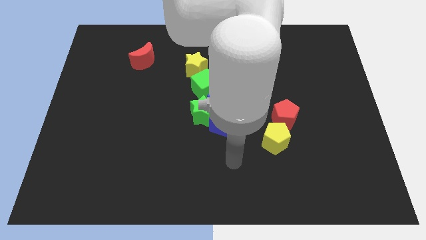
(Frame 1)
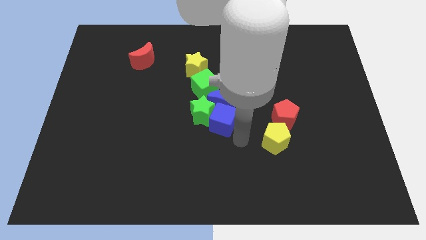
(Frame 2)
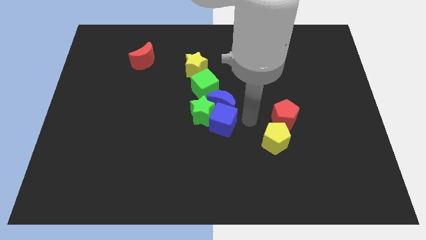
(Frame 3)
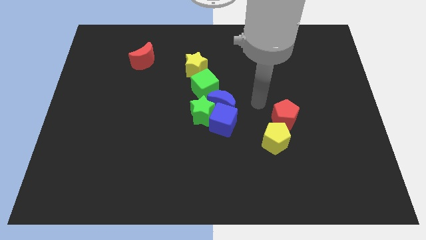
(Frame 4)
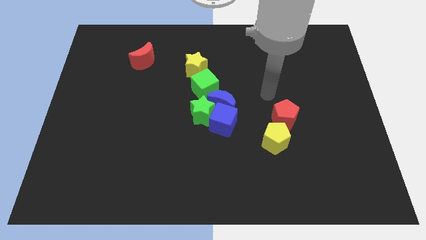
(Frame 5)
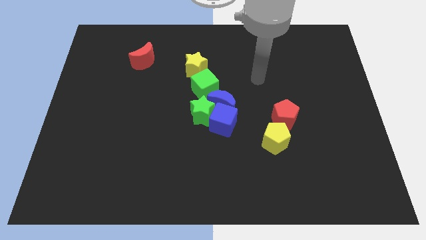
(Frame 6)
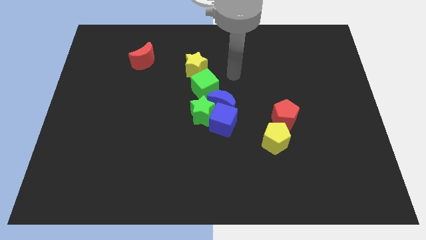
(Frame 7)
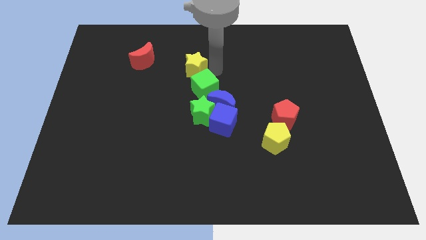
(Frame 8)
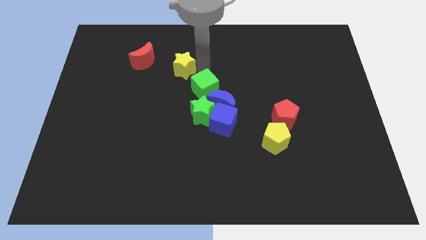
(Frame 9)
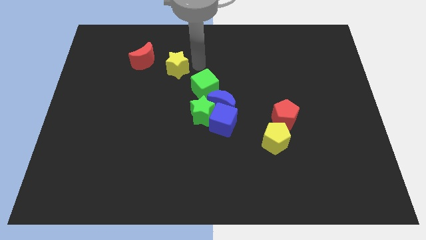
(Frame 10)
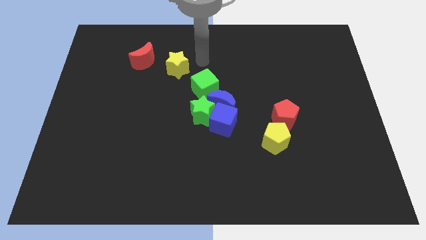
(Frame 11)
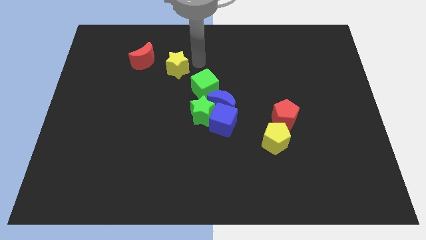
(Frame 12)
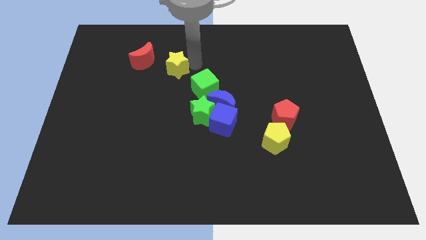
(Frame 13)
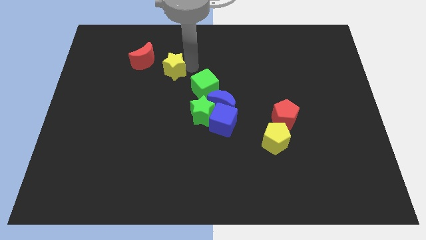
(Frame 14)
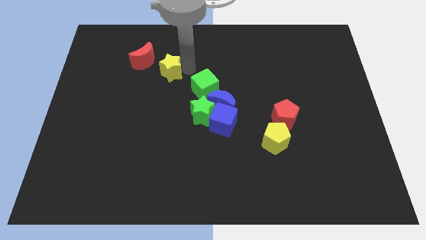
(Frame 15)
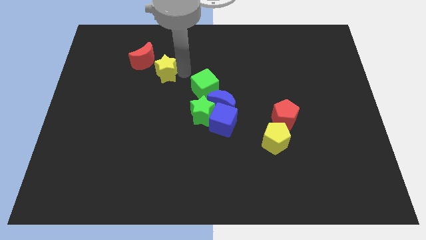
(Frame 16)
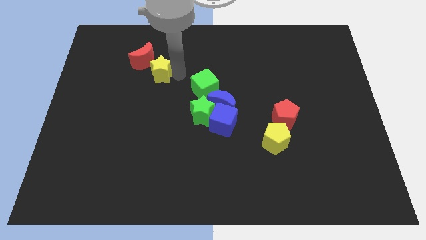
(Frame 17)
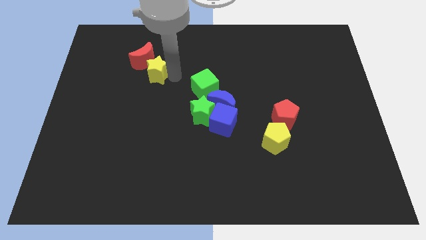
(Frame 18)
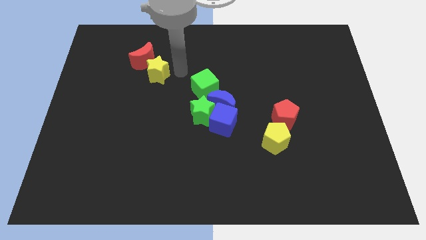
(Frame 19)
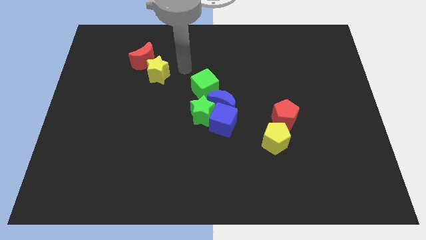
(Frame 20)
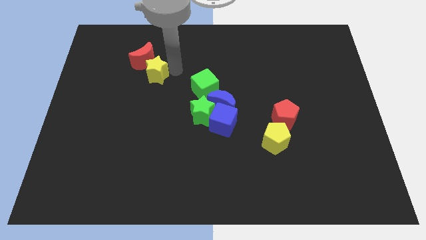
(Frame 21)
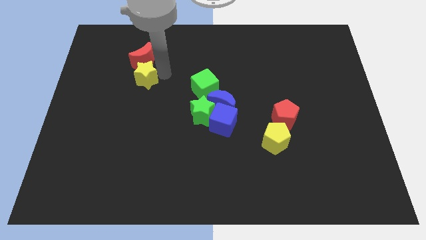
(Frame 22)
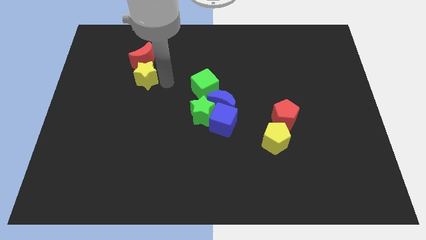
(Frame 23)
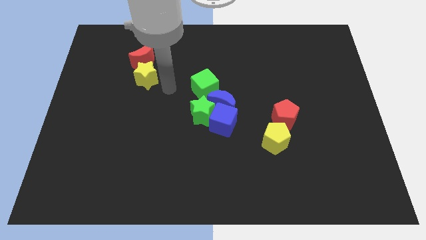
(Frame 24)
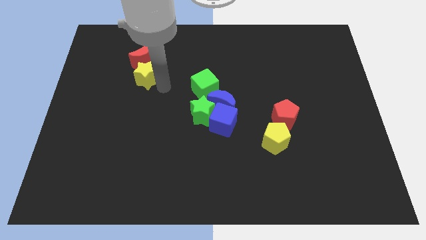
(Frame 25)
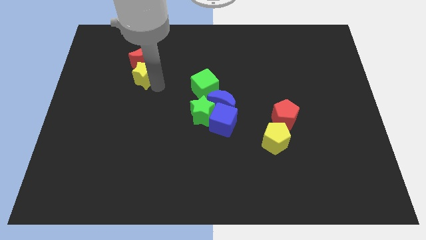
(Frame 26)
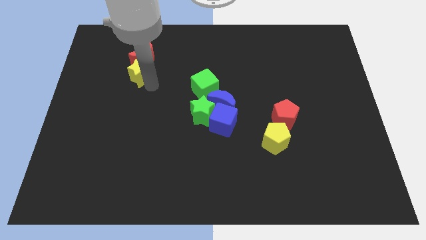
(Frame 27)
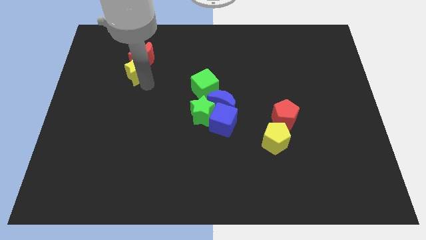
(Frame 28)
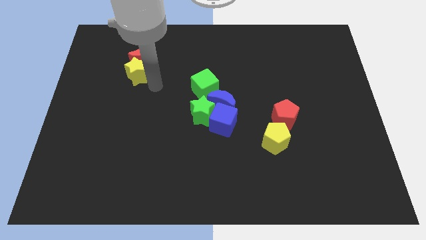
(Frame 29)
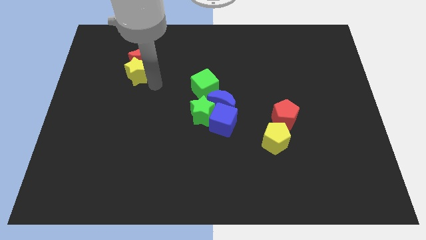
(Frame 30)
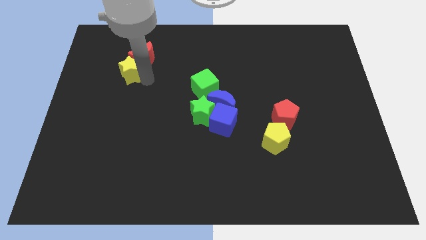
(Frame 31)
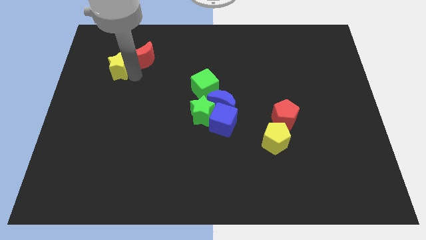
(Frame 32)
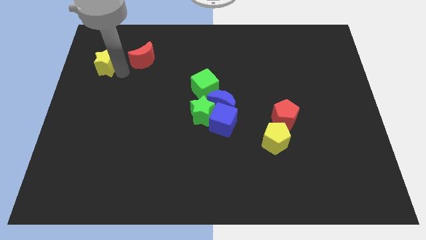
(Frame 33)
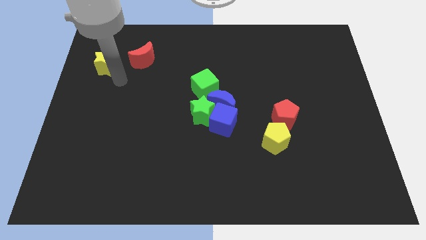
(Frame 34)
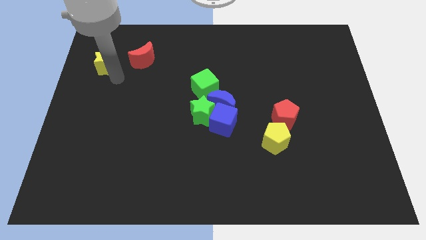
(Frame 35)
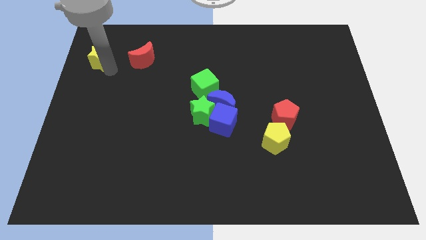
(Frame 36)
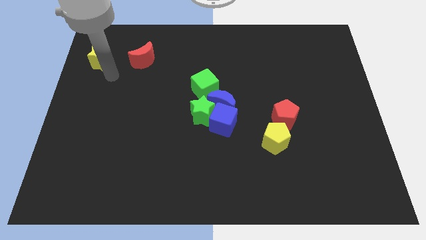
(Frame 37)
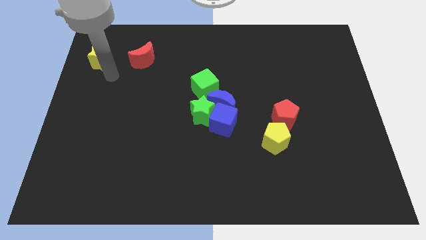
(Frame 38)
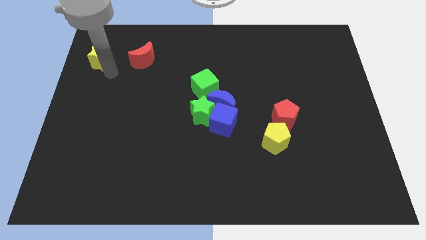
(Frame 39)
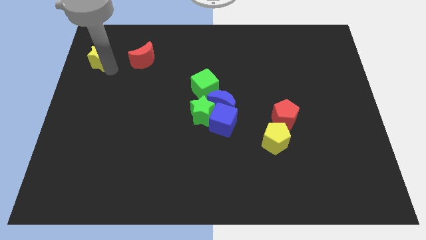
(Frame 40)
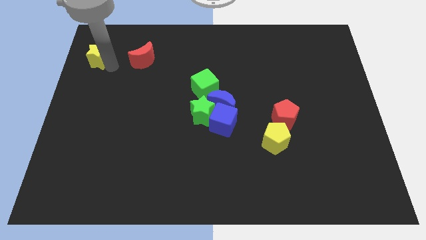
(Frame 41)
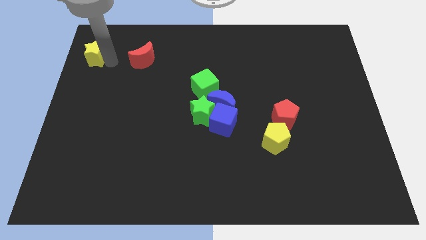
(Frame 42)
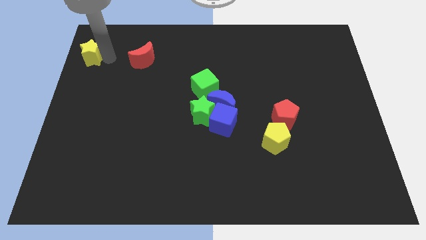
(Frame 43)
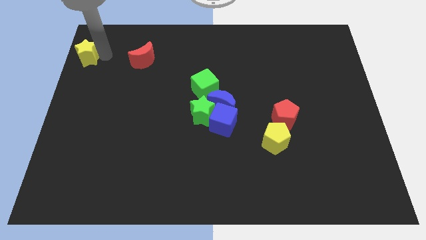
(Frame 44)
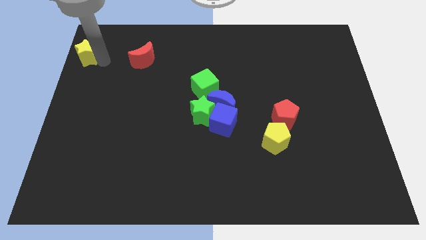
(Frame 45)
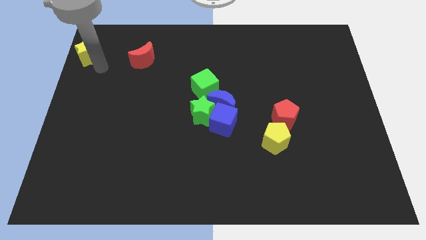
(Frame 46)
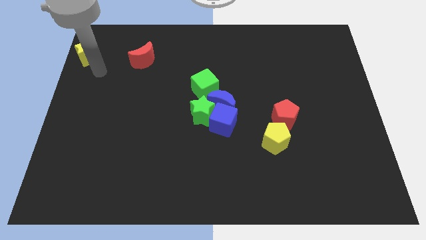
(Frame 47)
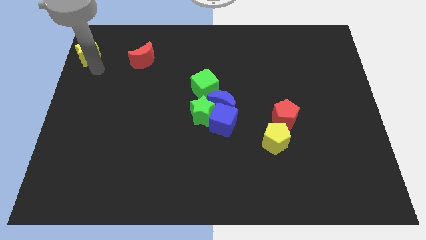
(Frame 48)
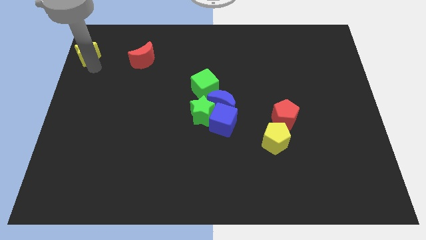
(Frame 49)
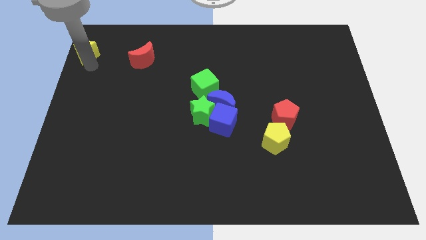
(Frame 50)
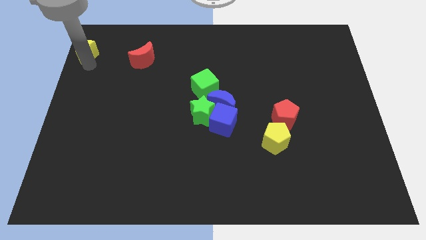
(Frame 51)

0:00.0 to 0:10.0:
put the yellow star to the top left
